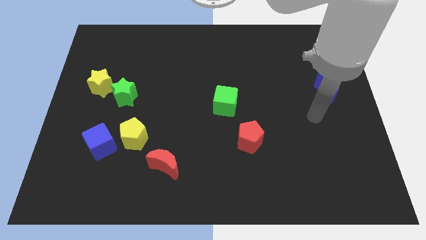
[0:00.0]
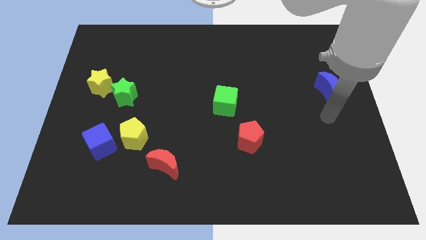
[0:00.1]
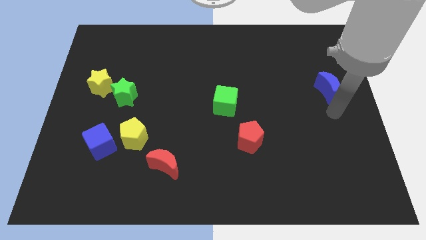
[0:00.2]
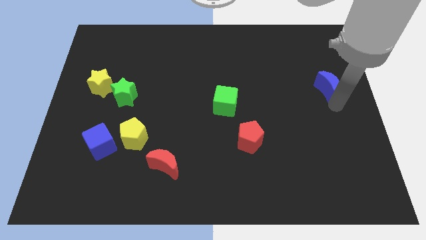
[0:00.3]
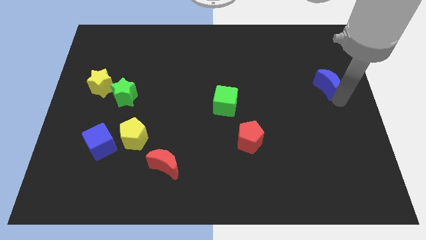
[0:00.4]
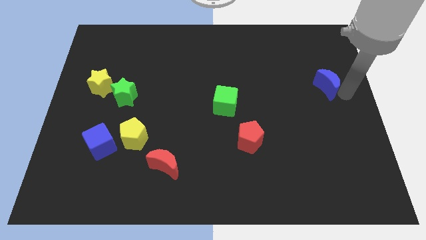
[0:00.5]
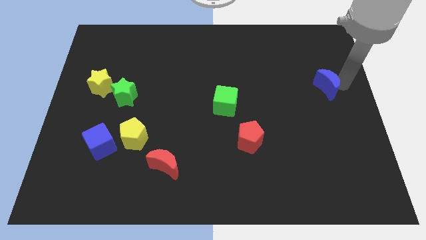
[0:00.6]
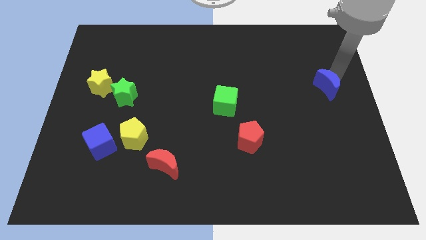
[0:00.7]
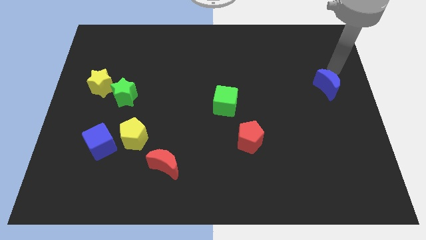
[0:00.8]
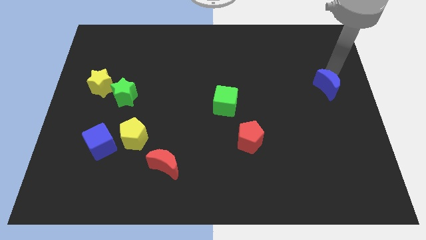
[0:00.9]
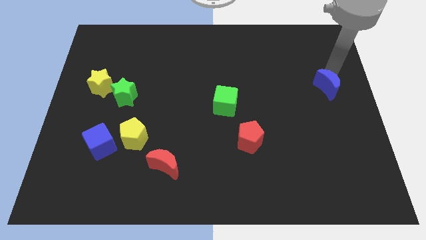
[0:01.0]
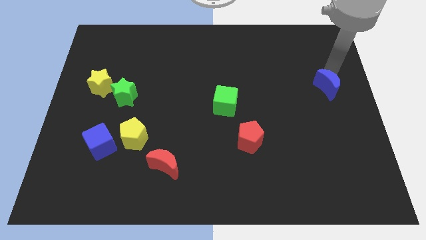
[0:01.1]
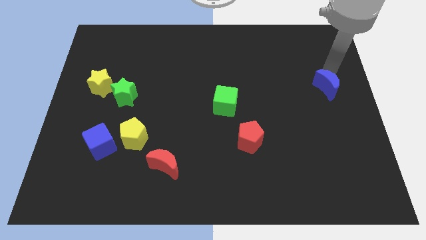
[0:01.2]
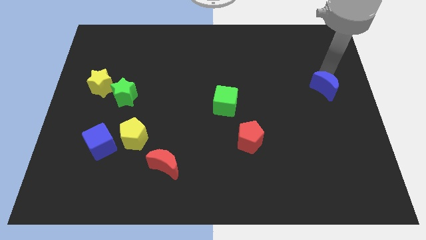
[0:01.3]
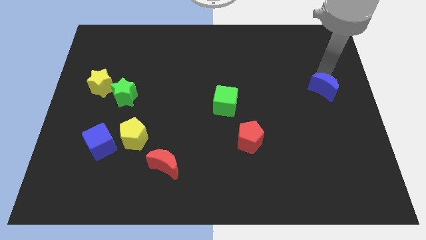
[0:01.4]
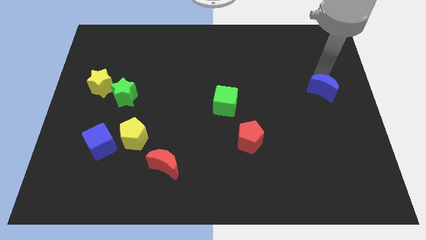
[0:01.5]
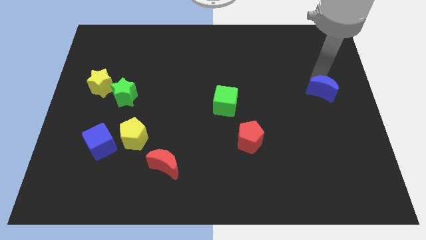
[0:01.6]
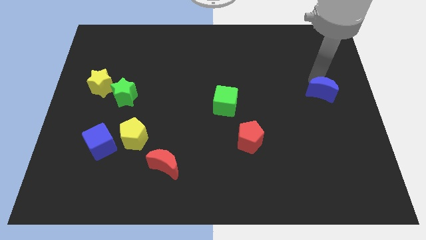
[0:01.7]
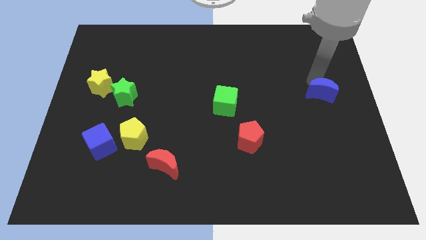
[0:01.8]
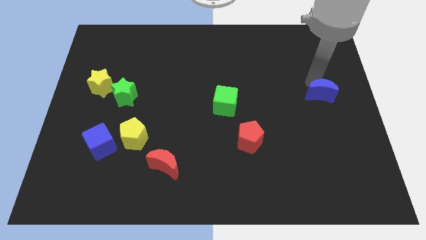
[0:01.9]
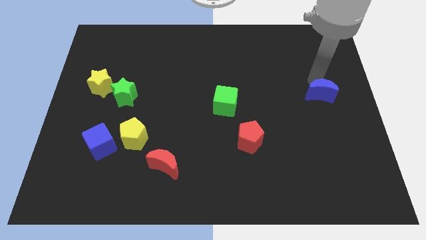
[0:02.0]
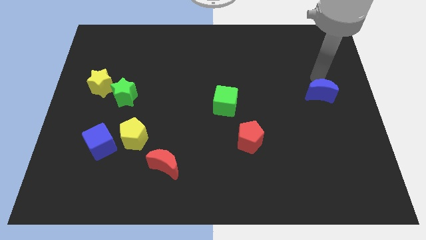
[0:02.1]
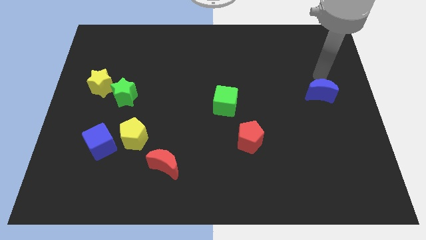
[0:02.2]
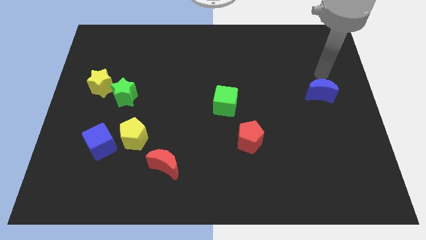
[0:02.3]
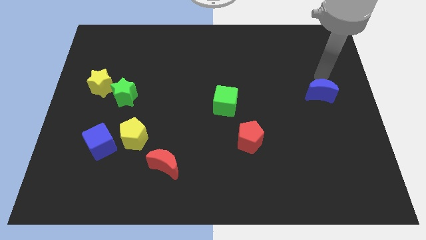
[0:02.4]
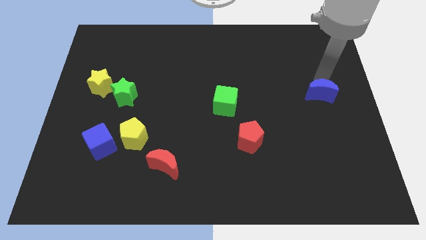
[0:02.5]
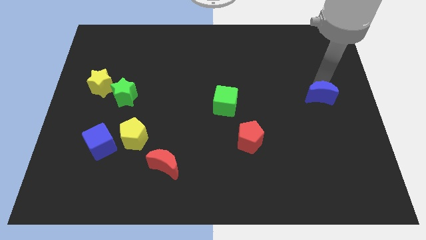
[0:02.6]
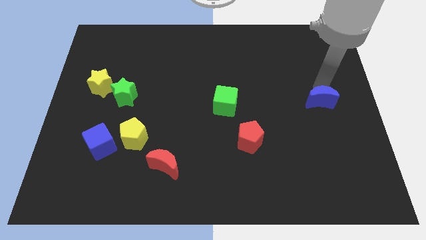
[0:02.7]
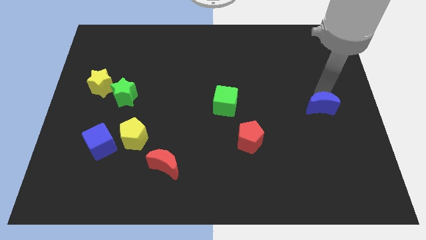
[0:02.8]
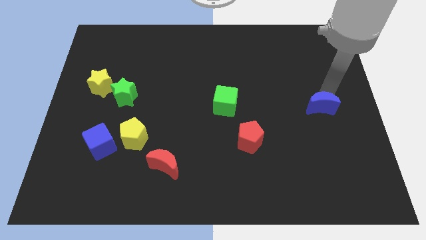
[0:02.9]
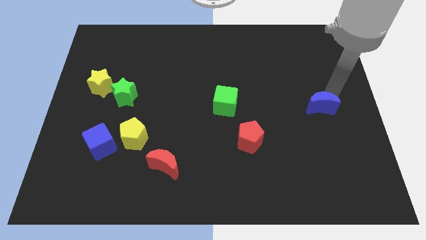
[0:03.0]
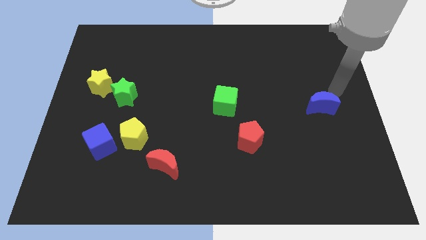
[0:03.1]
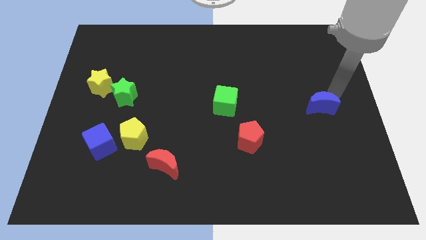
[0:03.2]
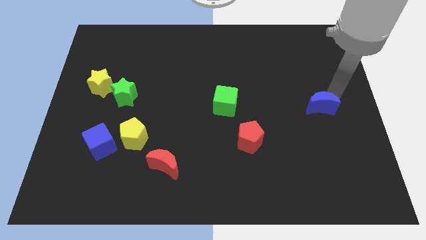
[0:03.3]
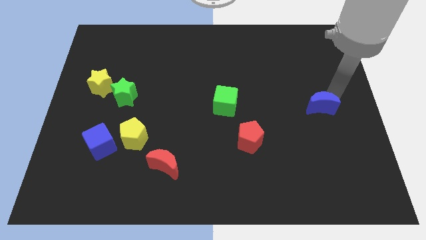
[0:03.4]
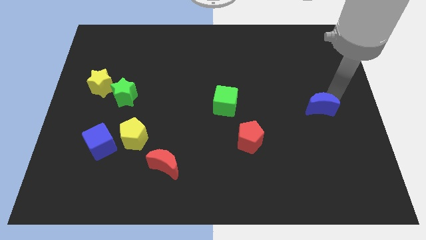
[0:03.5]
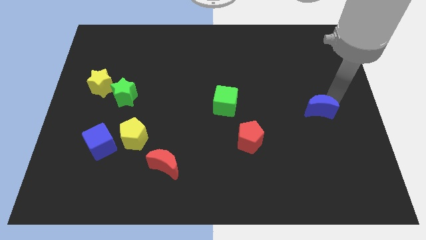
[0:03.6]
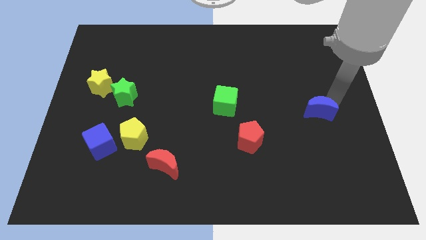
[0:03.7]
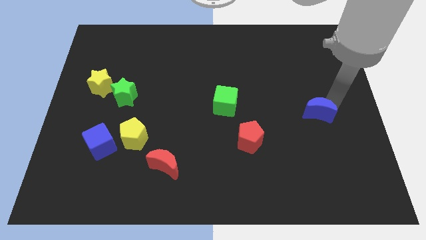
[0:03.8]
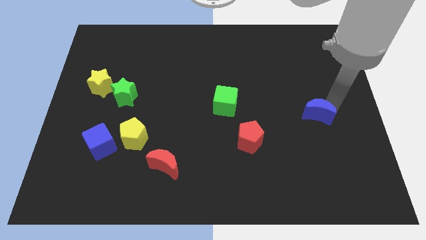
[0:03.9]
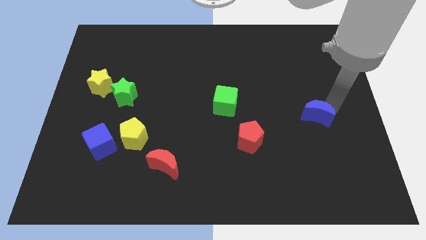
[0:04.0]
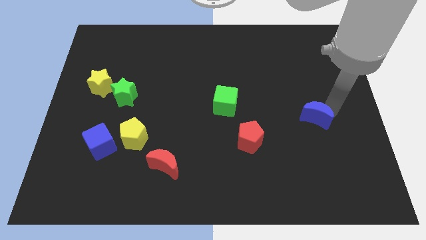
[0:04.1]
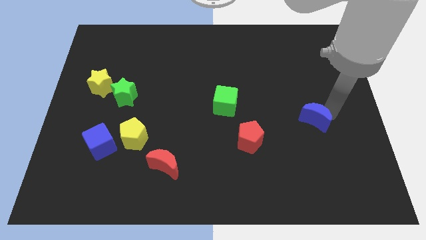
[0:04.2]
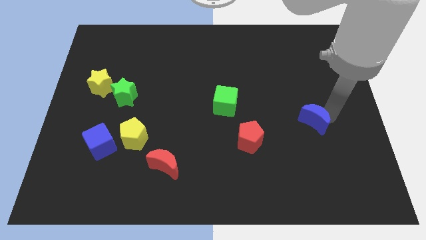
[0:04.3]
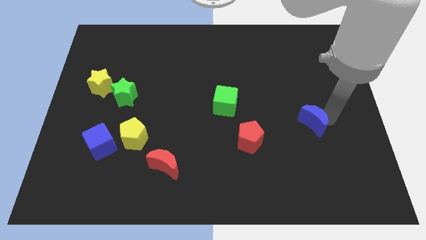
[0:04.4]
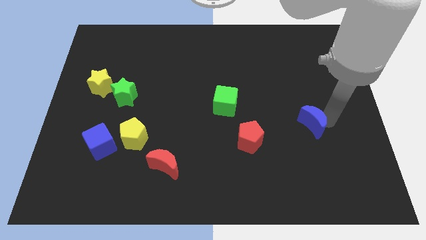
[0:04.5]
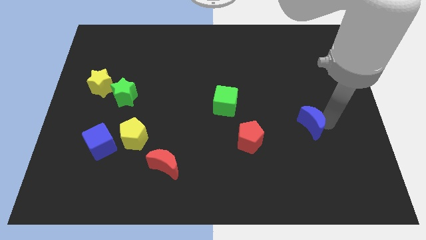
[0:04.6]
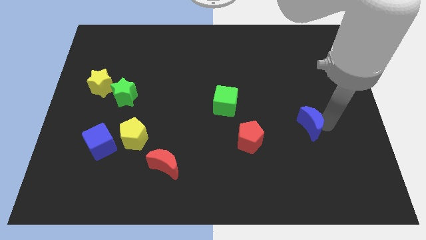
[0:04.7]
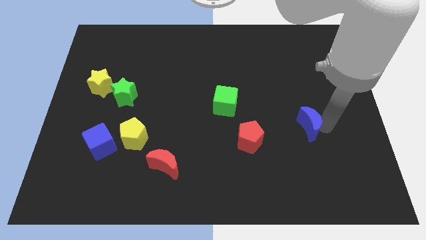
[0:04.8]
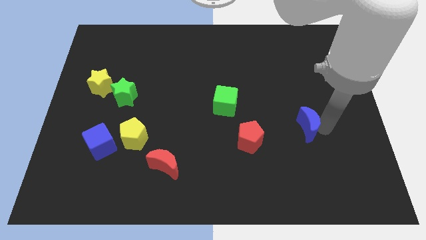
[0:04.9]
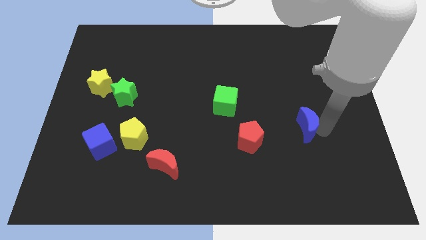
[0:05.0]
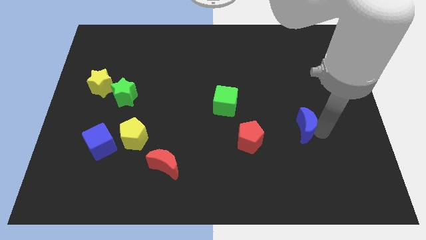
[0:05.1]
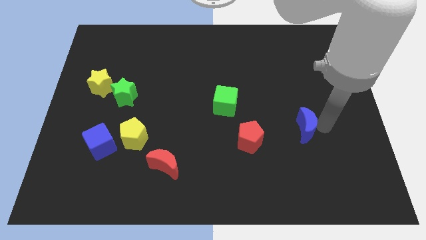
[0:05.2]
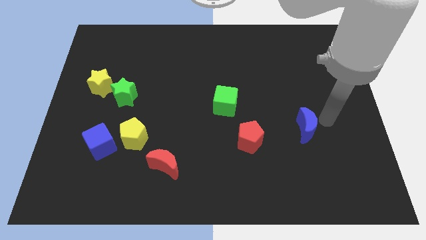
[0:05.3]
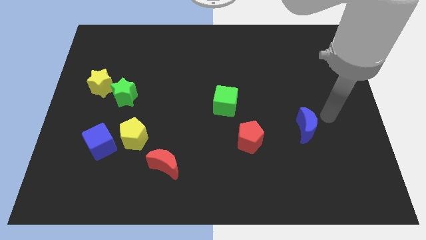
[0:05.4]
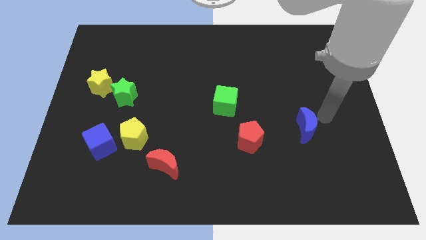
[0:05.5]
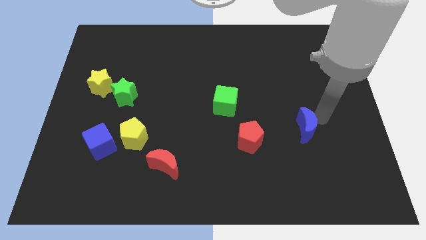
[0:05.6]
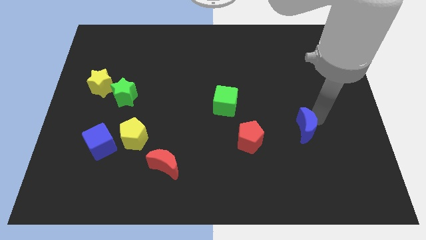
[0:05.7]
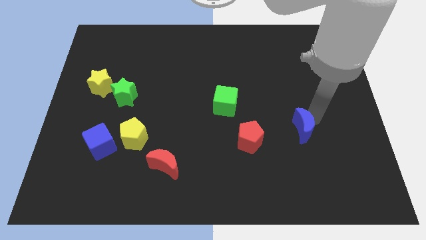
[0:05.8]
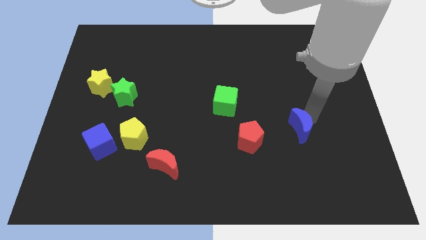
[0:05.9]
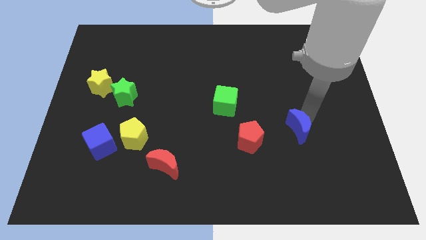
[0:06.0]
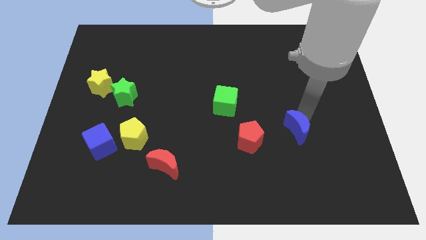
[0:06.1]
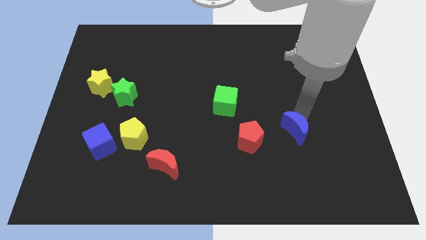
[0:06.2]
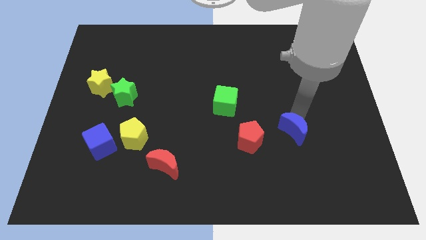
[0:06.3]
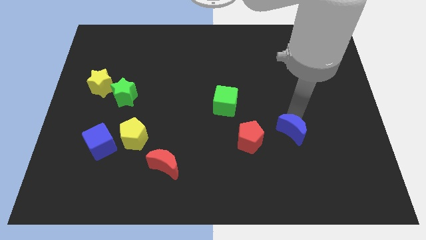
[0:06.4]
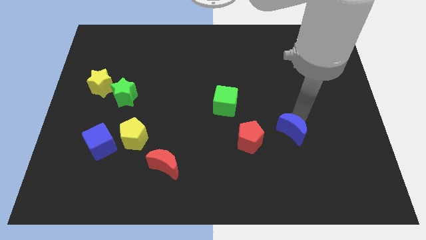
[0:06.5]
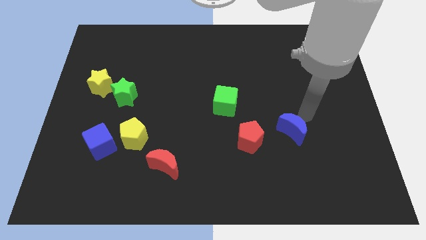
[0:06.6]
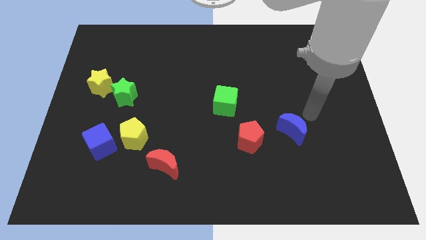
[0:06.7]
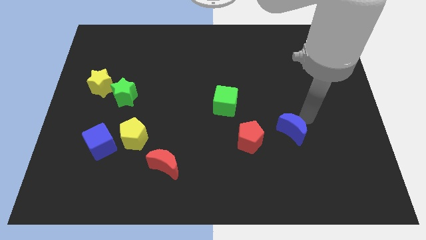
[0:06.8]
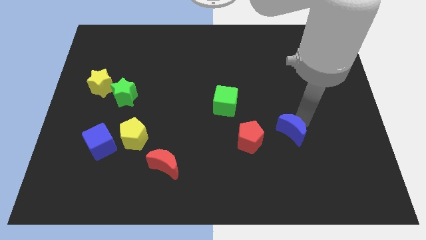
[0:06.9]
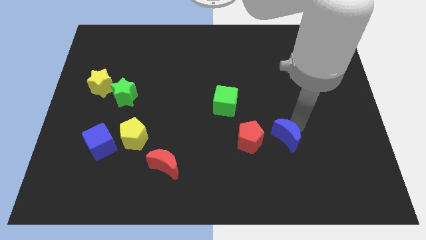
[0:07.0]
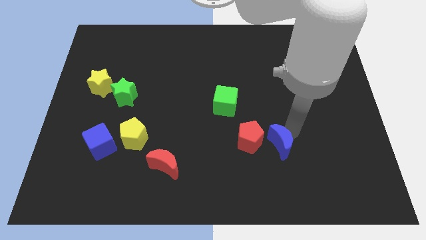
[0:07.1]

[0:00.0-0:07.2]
slide the blue moon downwards and then to the left

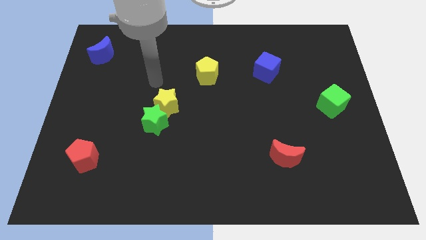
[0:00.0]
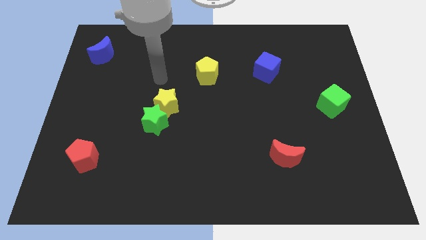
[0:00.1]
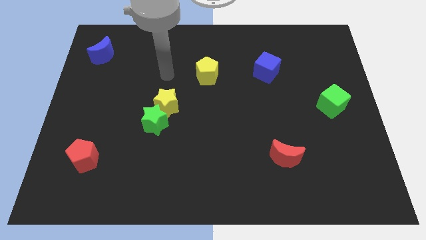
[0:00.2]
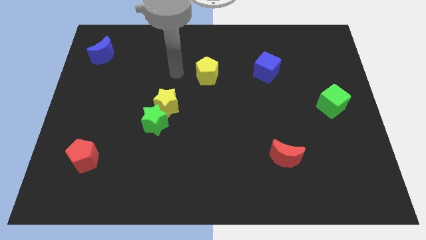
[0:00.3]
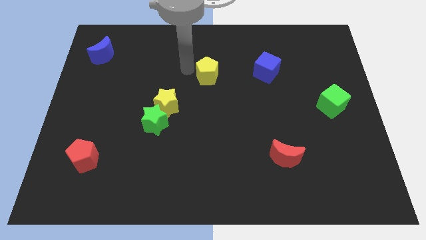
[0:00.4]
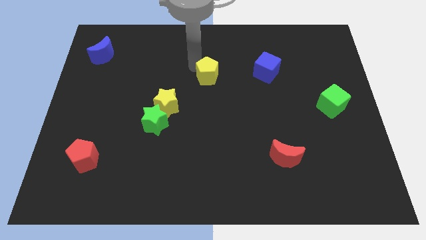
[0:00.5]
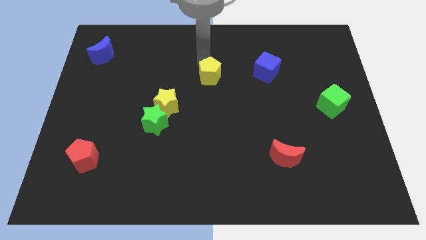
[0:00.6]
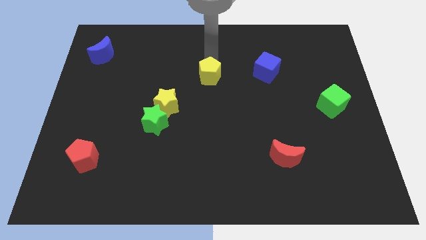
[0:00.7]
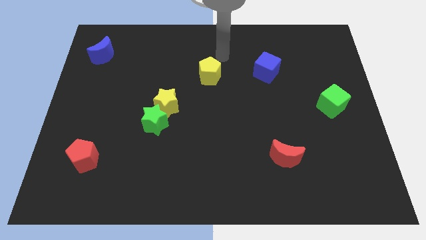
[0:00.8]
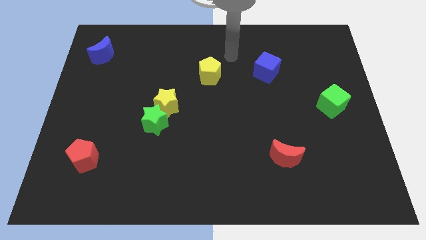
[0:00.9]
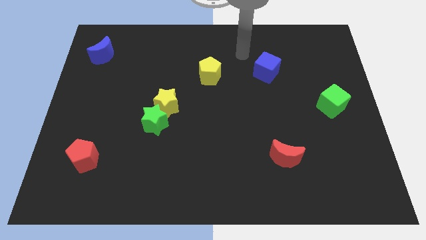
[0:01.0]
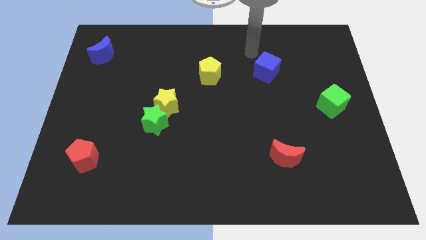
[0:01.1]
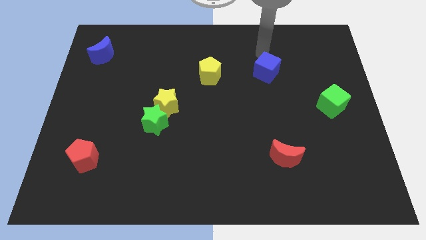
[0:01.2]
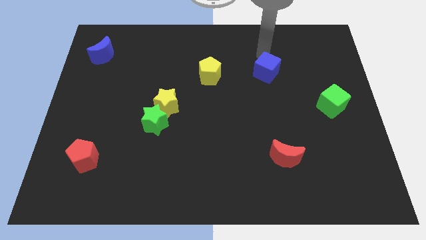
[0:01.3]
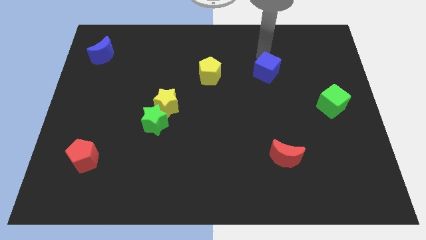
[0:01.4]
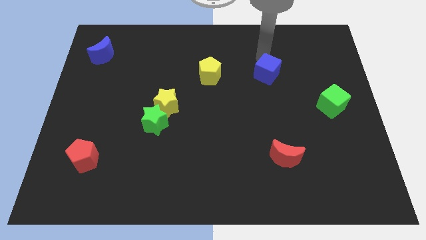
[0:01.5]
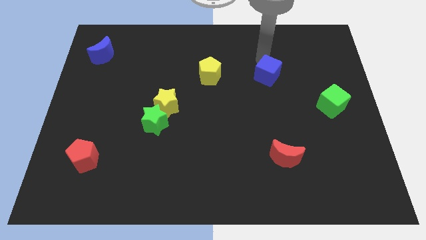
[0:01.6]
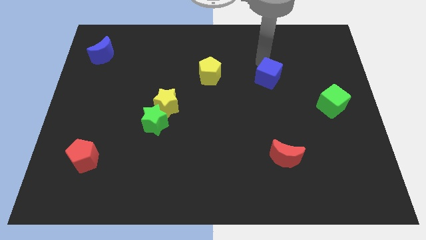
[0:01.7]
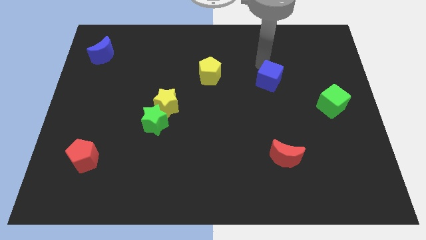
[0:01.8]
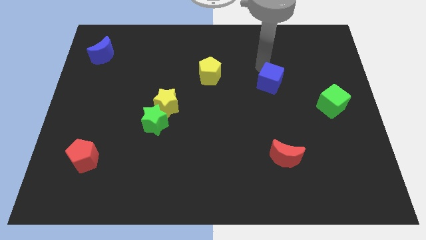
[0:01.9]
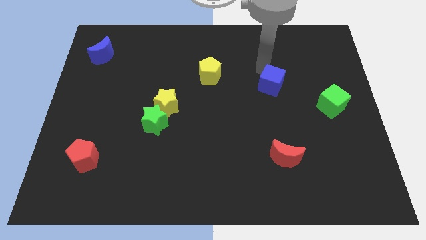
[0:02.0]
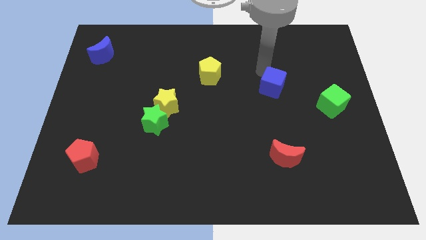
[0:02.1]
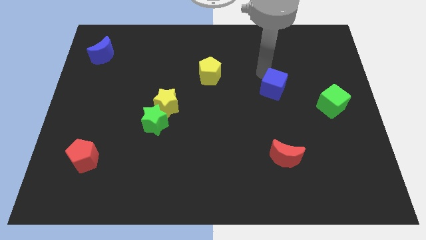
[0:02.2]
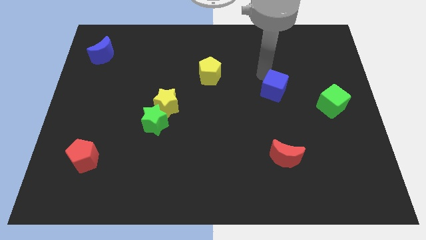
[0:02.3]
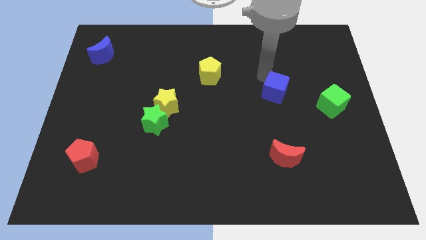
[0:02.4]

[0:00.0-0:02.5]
slide the blue cube down a little bit
